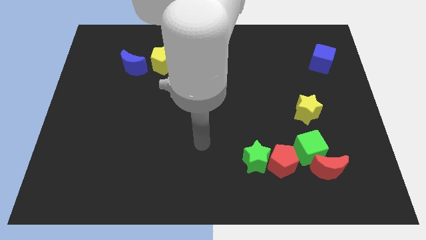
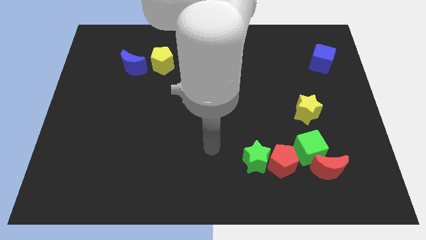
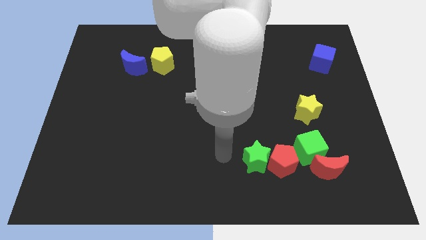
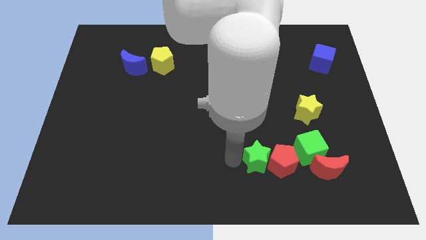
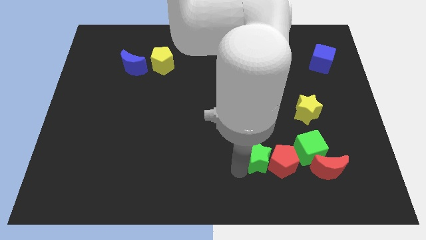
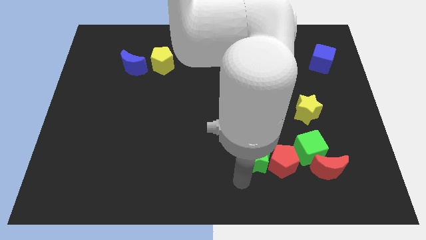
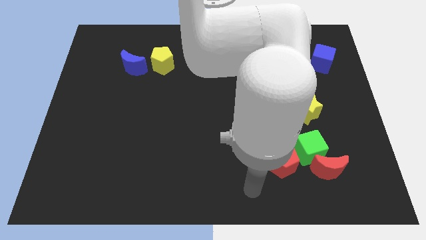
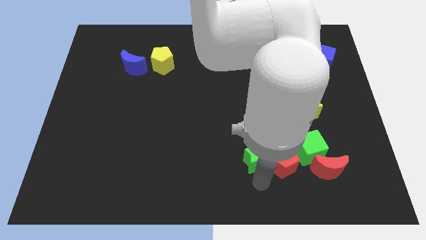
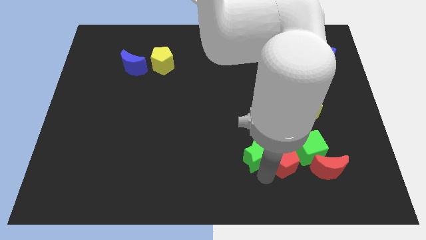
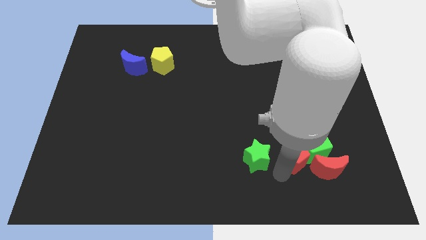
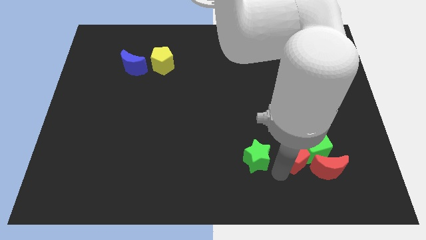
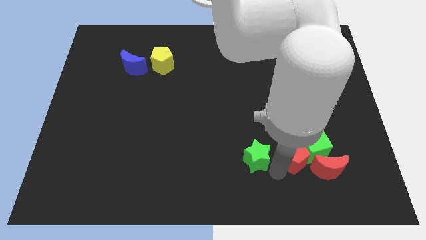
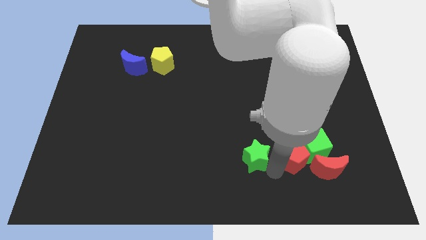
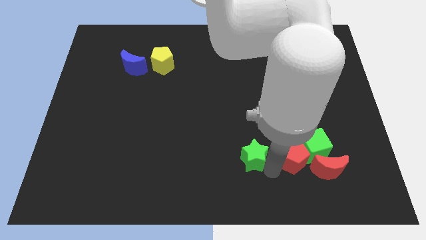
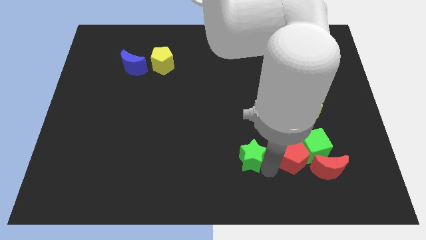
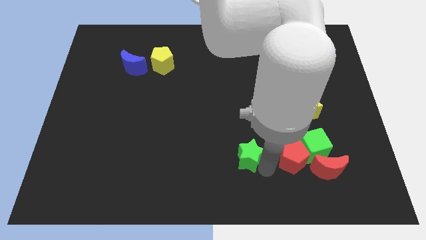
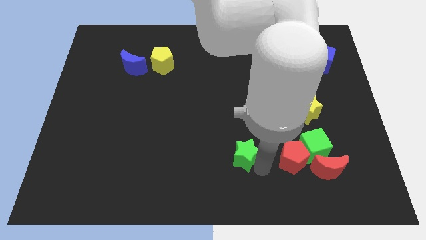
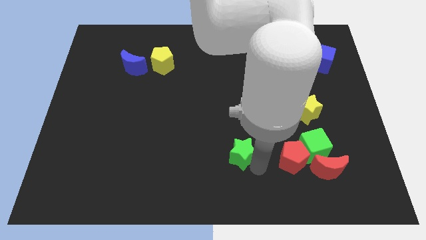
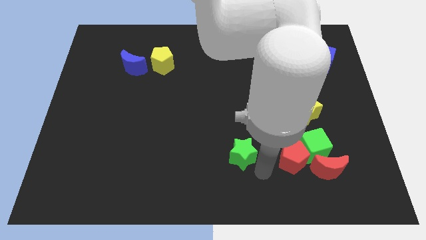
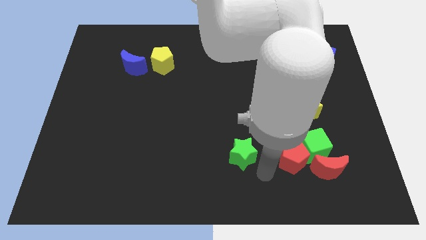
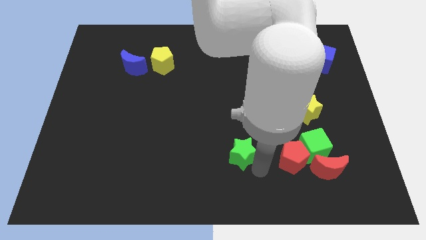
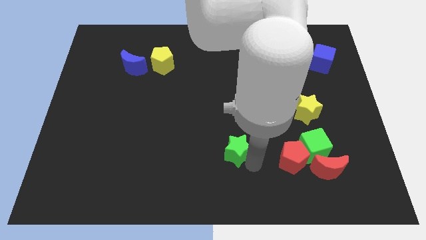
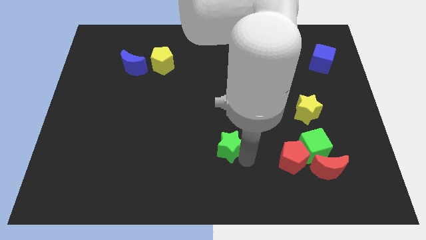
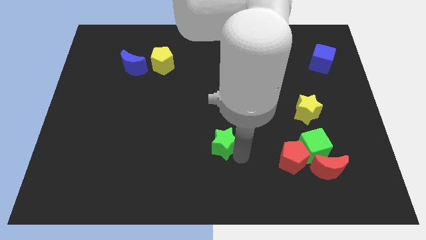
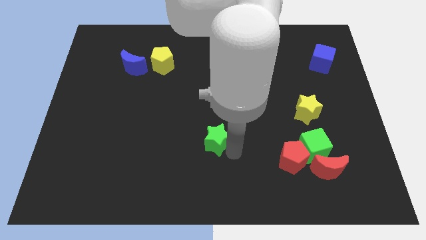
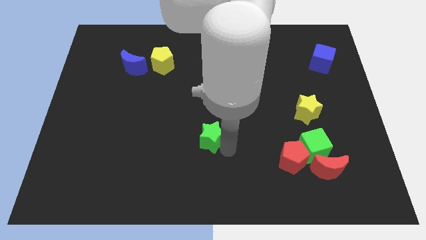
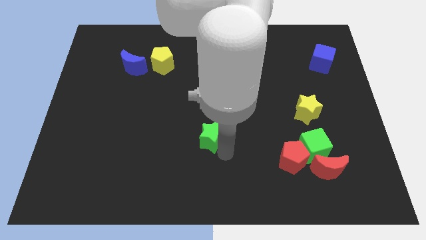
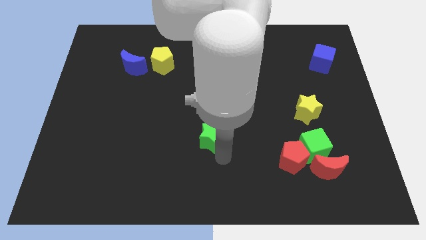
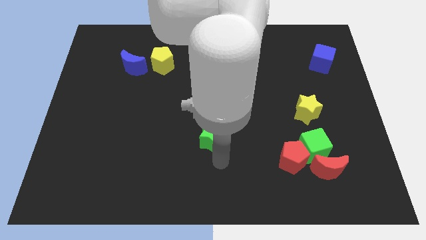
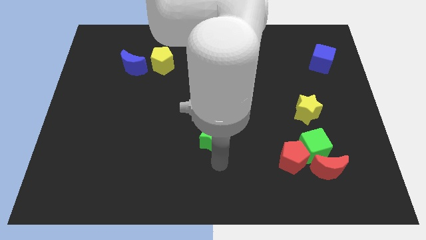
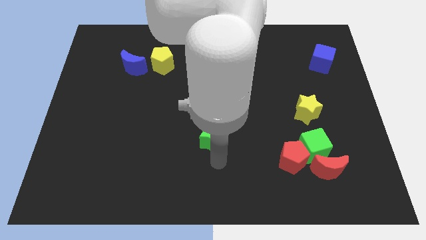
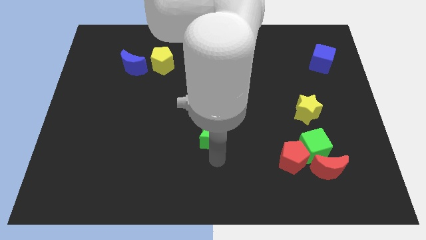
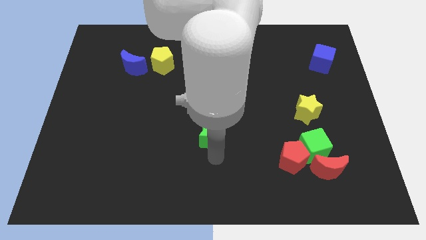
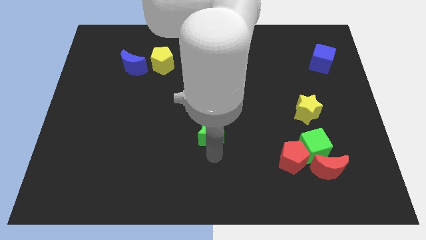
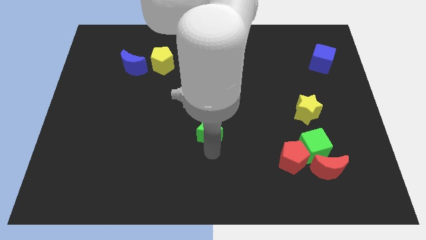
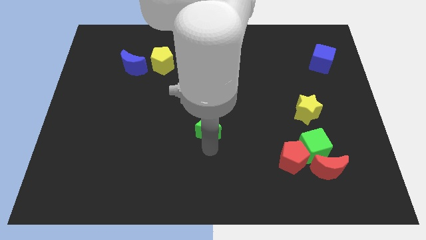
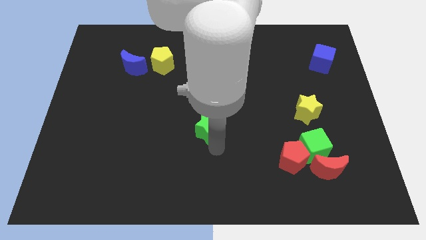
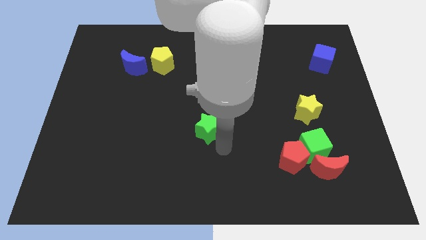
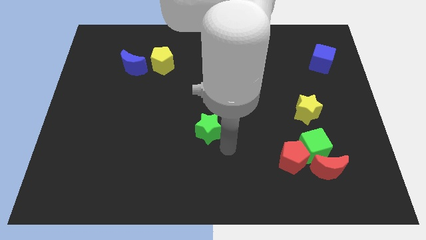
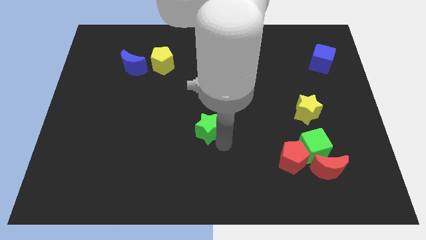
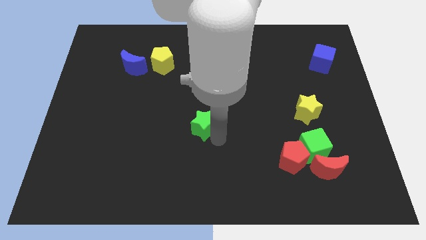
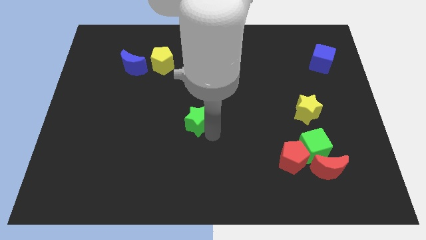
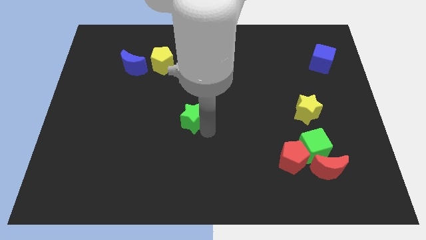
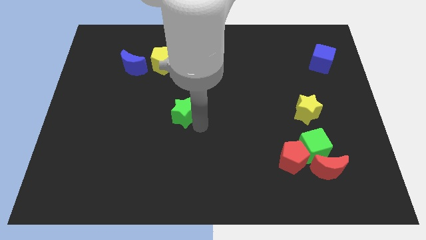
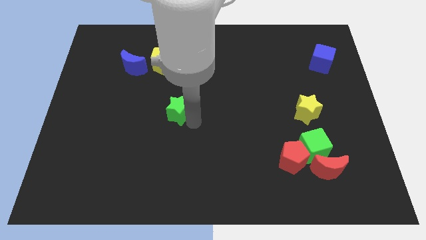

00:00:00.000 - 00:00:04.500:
slide the green star up and left diagonally

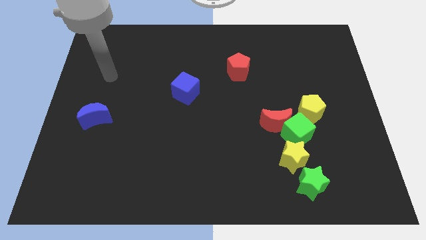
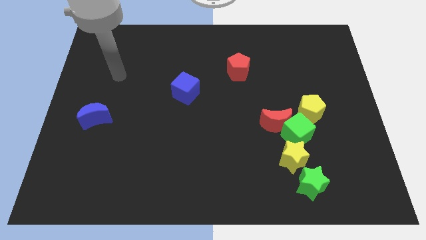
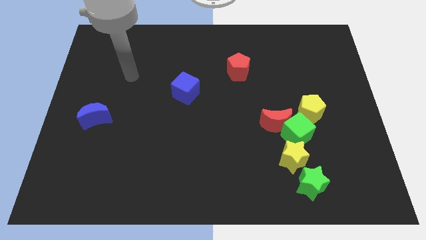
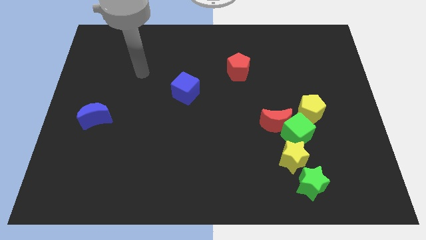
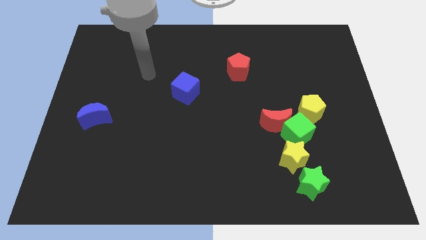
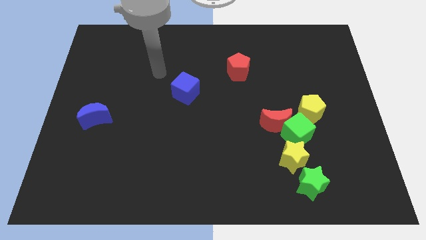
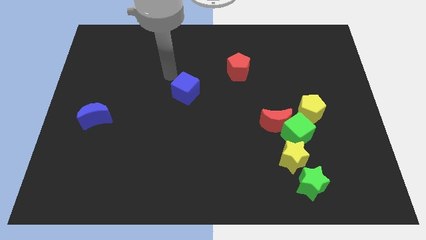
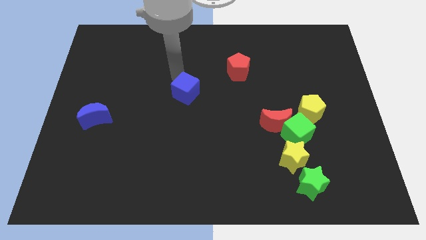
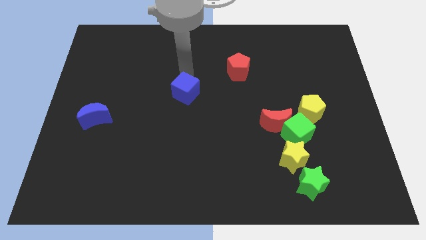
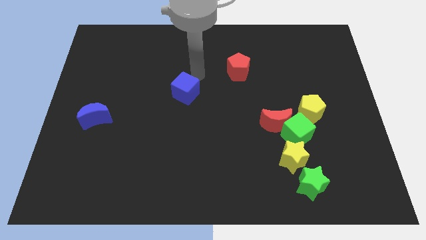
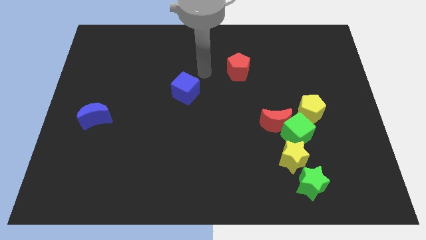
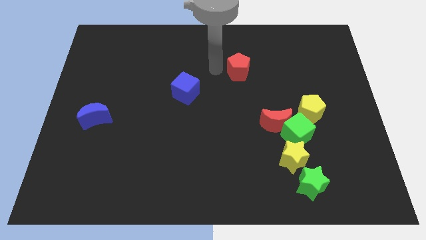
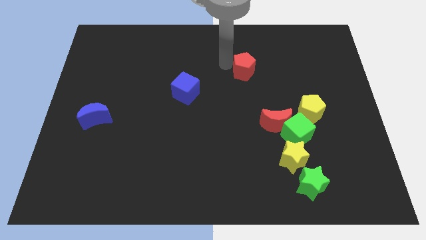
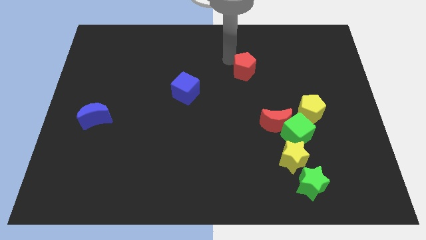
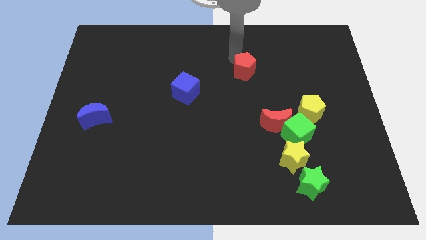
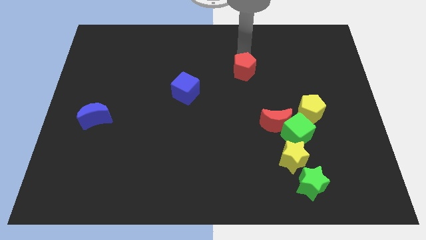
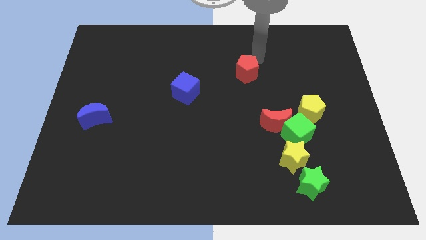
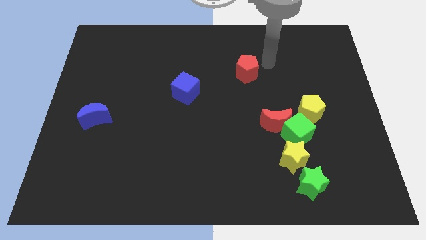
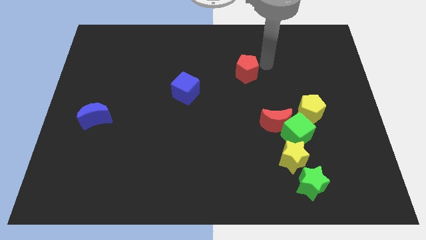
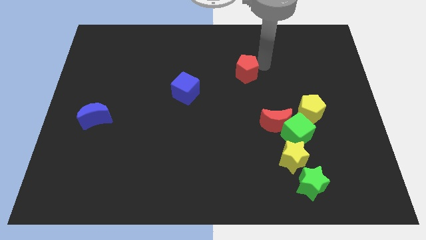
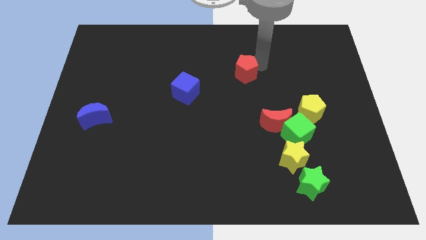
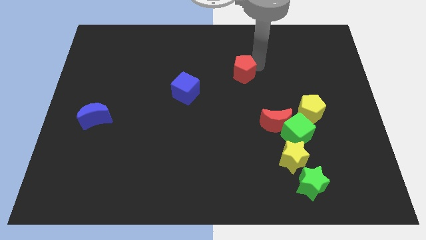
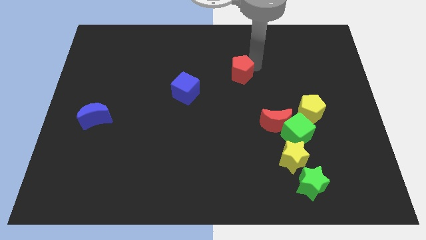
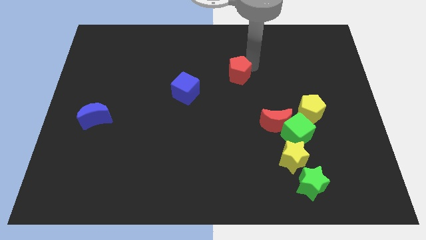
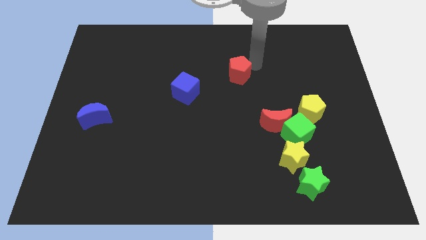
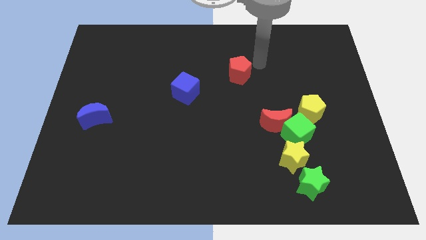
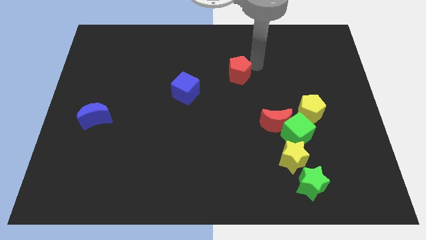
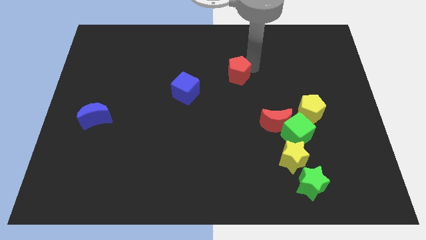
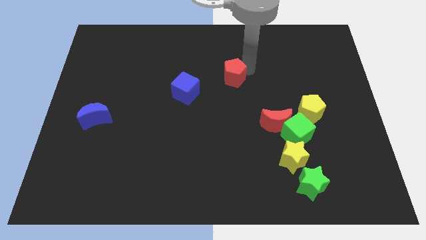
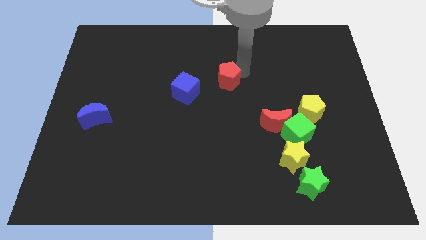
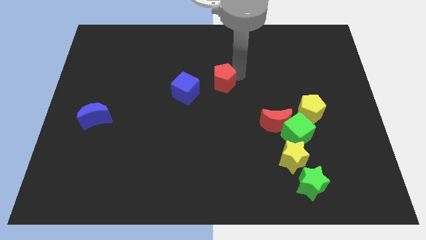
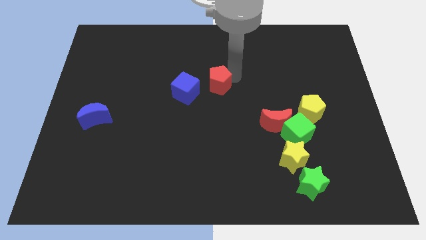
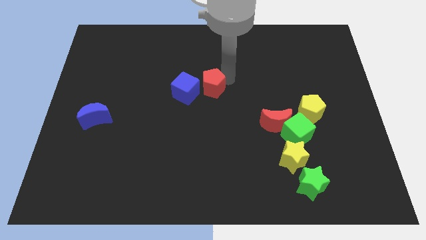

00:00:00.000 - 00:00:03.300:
push the red pentagon downwards and left diagonally slightly
